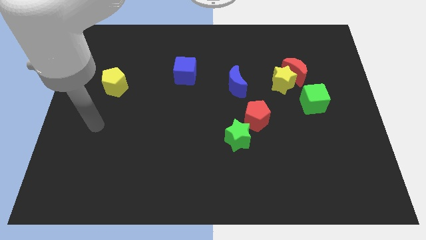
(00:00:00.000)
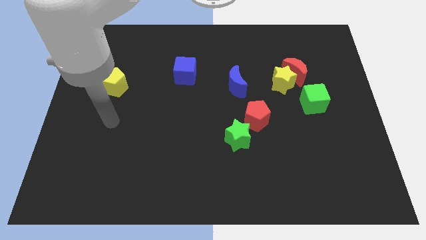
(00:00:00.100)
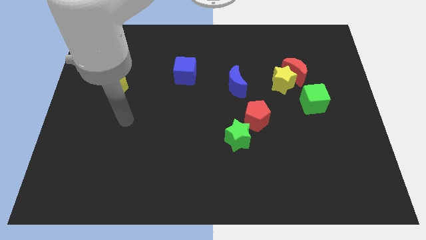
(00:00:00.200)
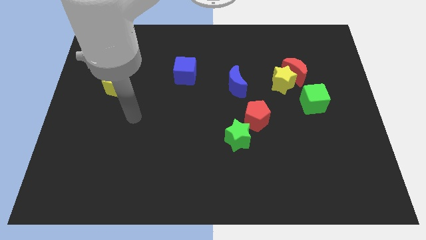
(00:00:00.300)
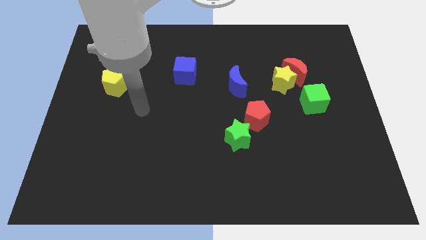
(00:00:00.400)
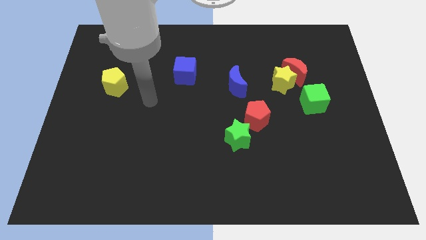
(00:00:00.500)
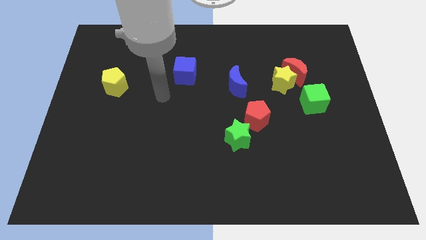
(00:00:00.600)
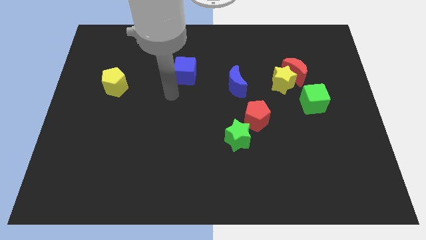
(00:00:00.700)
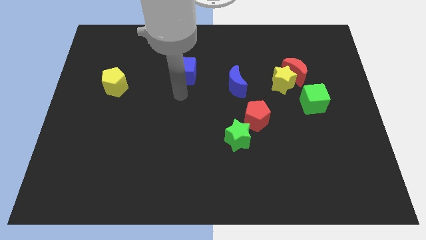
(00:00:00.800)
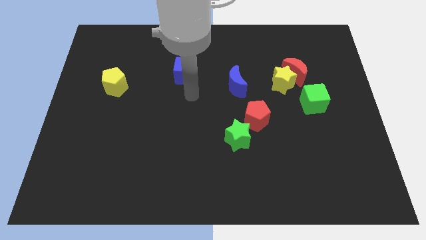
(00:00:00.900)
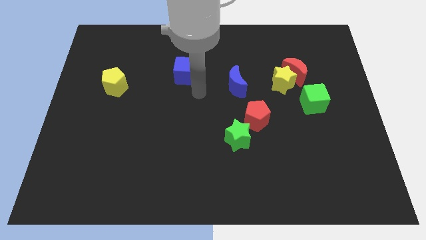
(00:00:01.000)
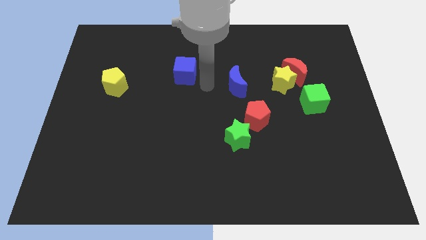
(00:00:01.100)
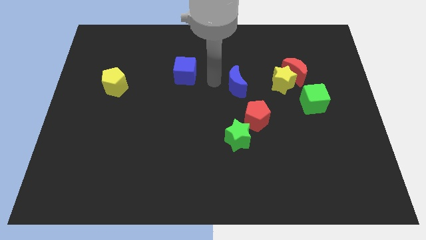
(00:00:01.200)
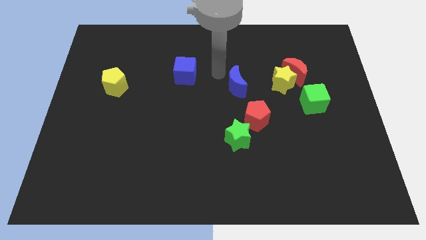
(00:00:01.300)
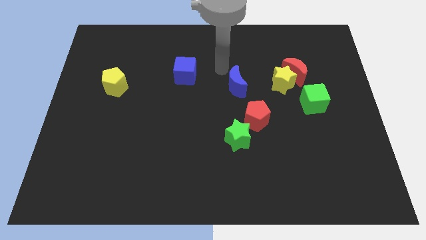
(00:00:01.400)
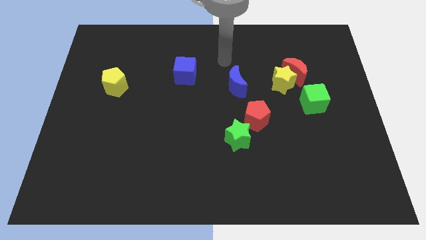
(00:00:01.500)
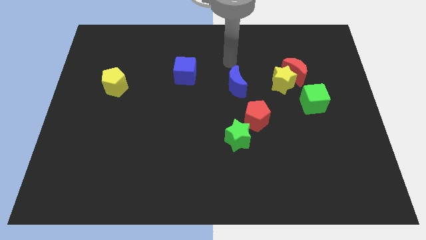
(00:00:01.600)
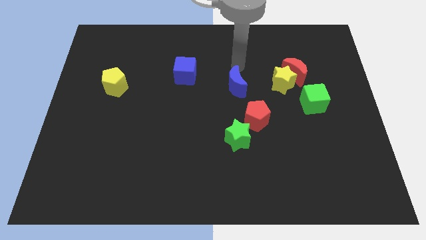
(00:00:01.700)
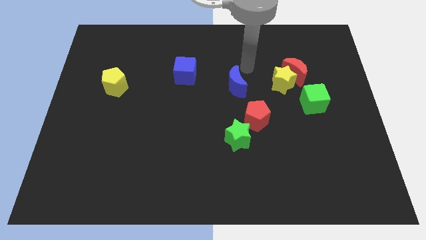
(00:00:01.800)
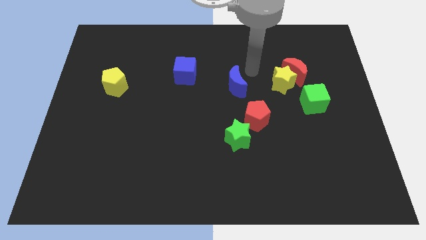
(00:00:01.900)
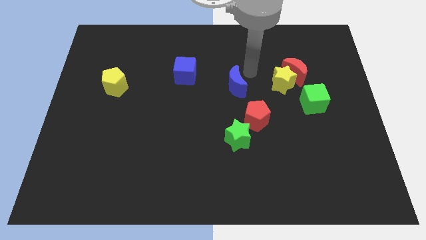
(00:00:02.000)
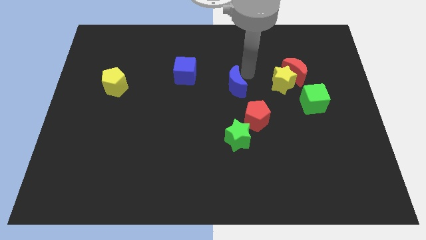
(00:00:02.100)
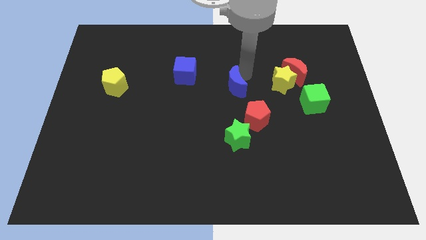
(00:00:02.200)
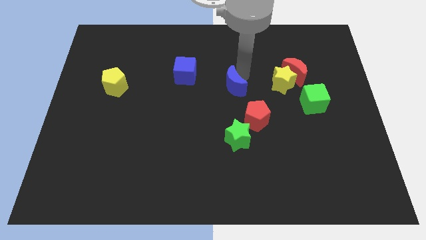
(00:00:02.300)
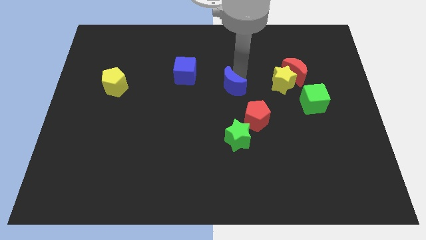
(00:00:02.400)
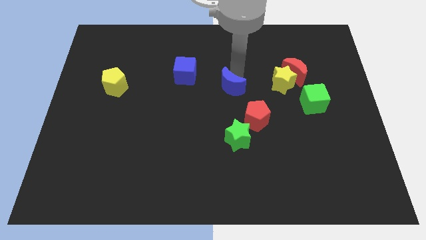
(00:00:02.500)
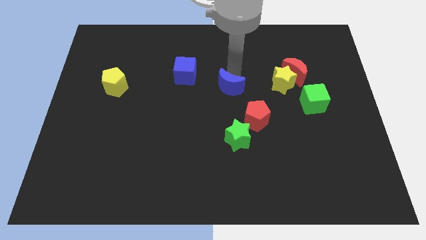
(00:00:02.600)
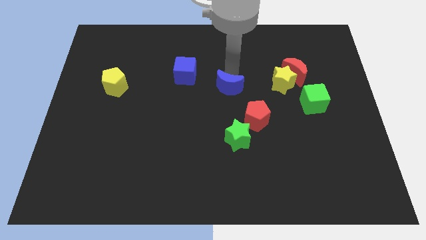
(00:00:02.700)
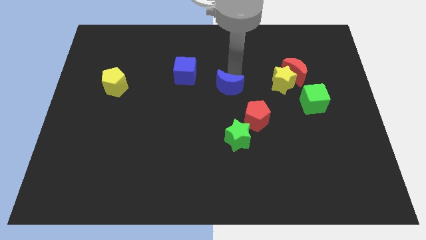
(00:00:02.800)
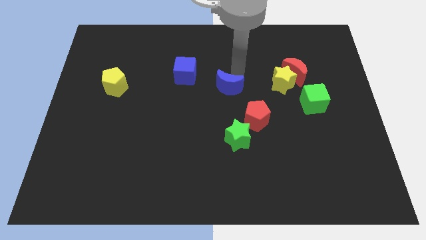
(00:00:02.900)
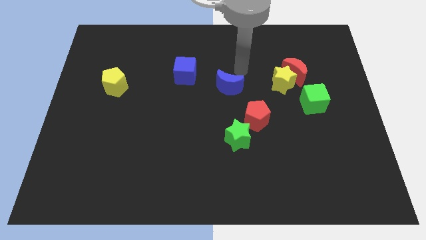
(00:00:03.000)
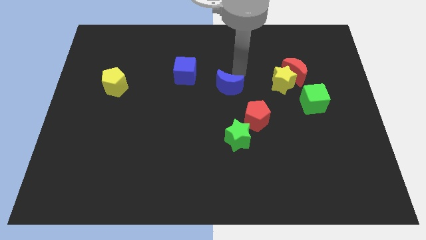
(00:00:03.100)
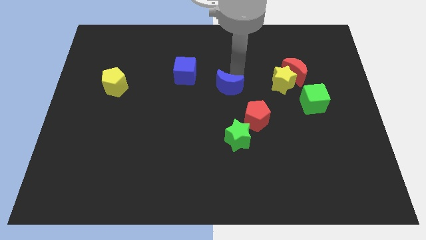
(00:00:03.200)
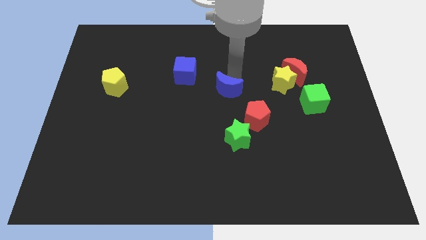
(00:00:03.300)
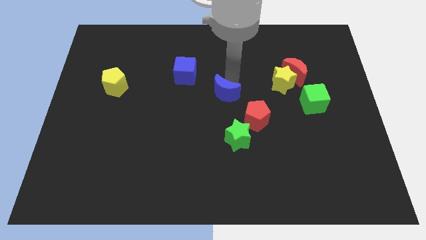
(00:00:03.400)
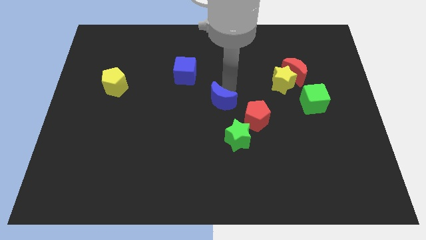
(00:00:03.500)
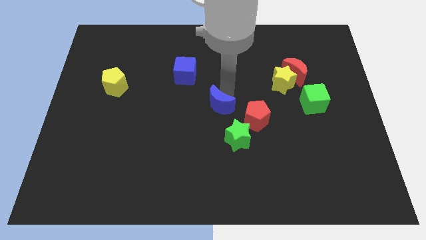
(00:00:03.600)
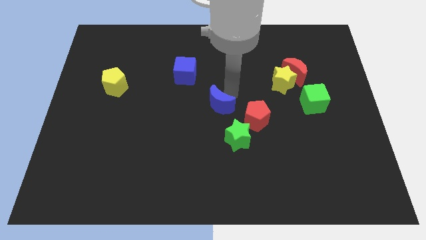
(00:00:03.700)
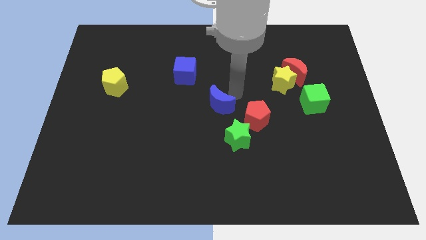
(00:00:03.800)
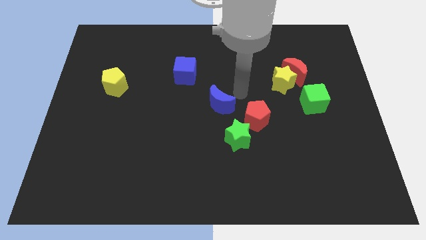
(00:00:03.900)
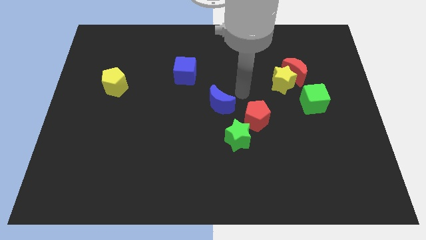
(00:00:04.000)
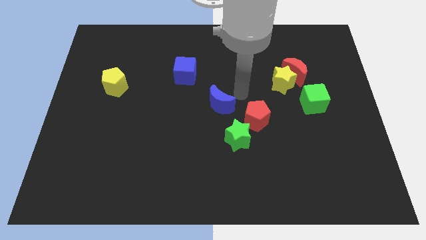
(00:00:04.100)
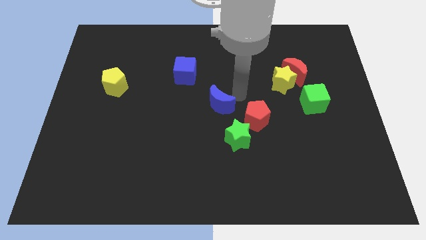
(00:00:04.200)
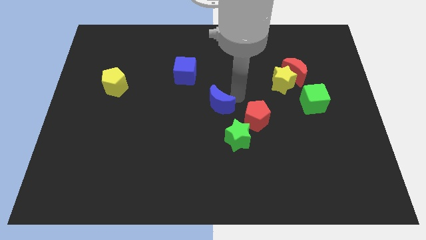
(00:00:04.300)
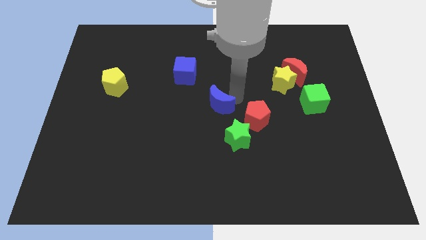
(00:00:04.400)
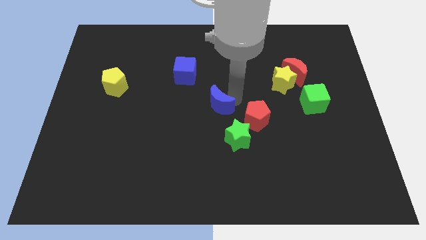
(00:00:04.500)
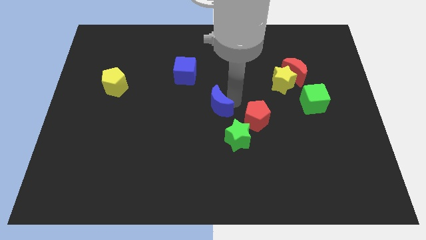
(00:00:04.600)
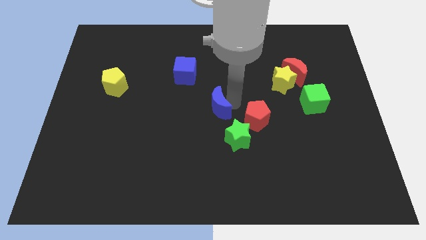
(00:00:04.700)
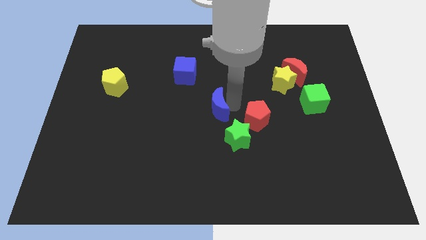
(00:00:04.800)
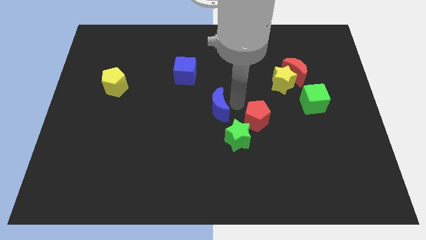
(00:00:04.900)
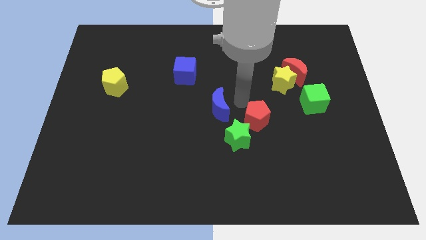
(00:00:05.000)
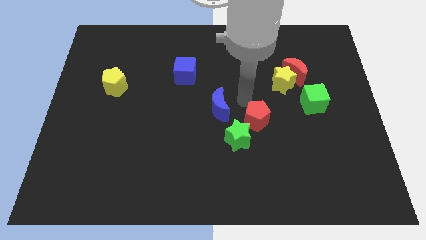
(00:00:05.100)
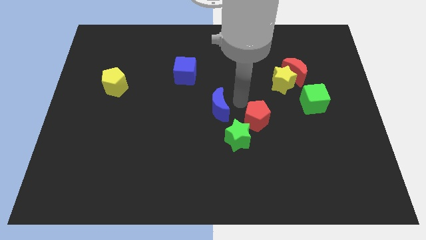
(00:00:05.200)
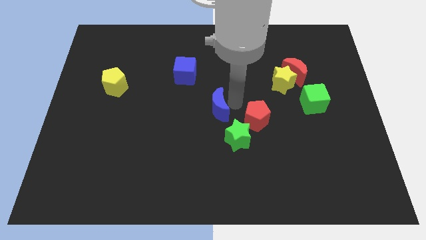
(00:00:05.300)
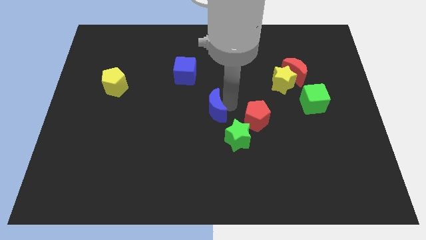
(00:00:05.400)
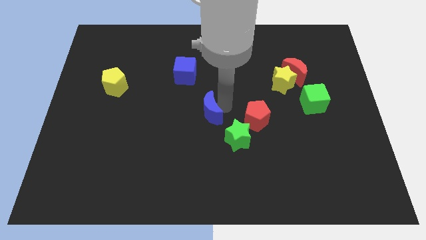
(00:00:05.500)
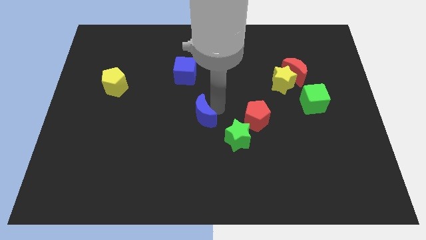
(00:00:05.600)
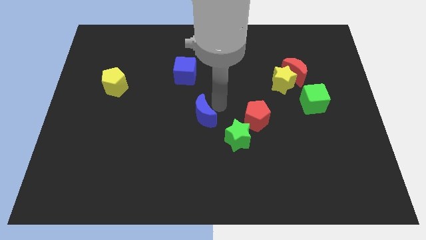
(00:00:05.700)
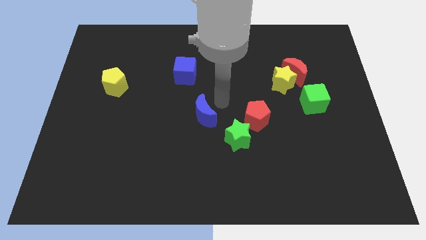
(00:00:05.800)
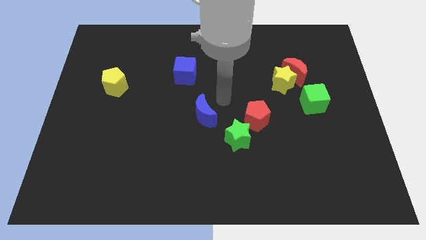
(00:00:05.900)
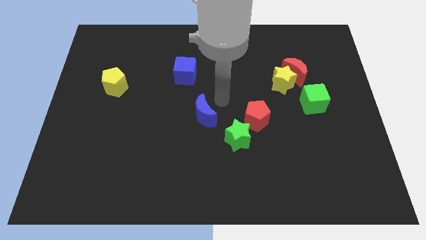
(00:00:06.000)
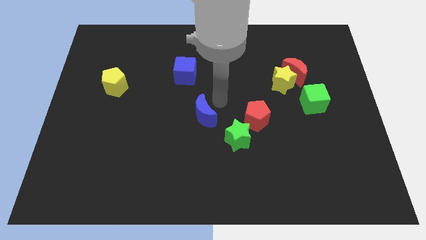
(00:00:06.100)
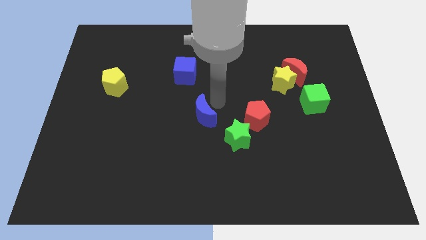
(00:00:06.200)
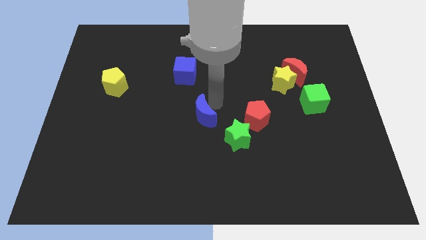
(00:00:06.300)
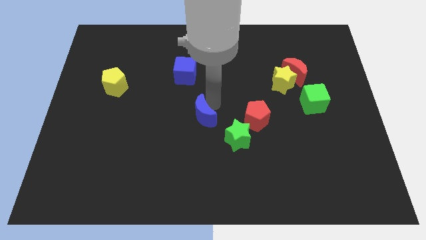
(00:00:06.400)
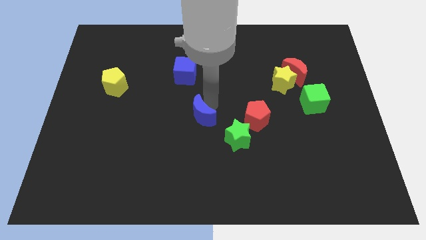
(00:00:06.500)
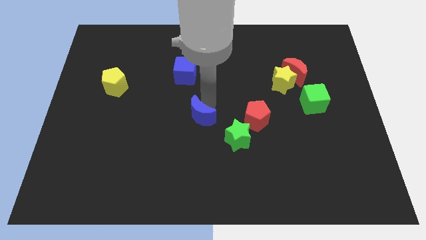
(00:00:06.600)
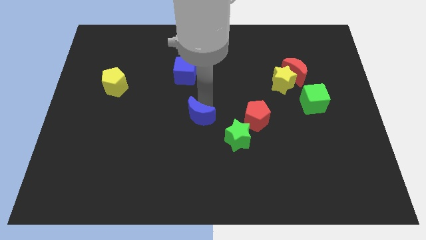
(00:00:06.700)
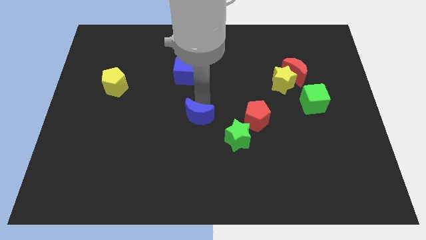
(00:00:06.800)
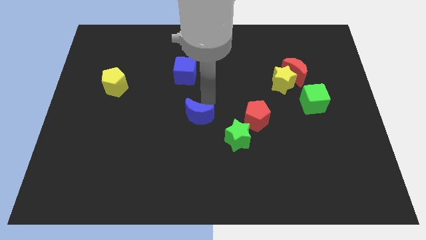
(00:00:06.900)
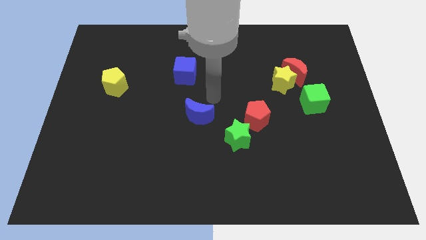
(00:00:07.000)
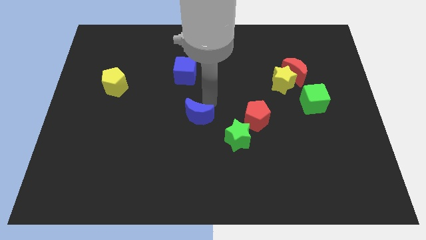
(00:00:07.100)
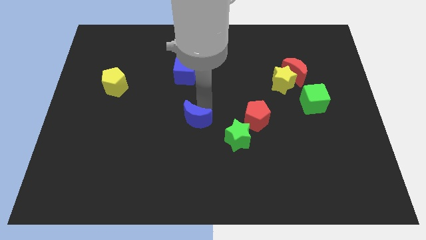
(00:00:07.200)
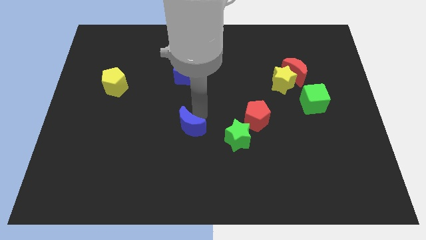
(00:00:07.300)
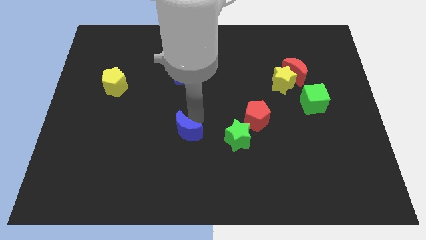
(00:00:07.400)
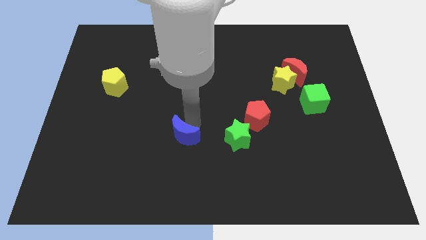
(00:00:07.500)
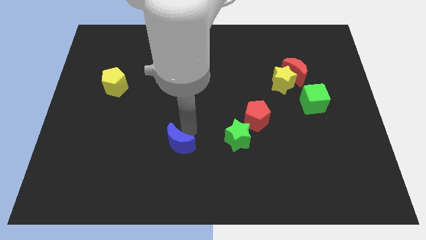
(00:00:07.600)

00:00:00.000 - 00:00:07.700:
move the blue moon downwards and to the left
